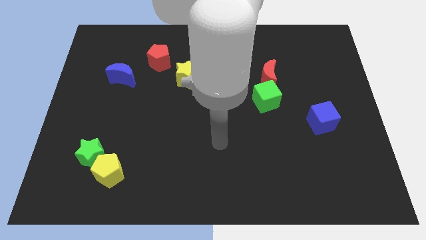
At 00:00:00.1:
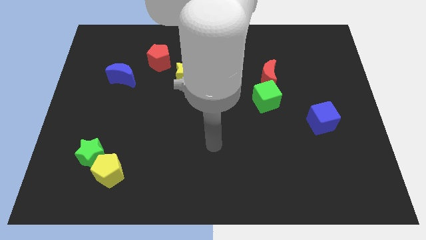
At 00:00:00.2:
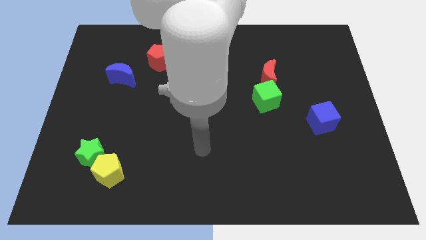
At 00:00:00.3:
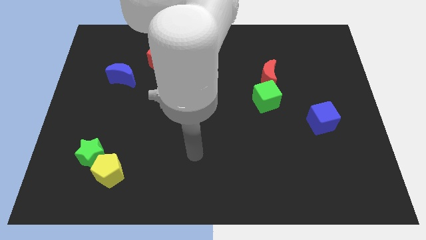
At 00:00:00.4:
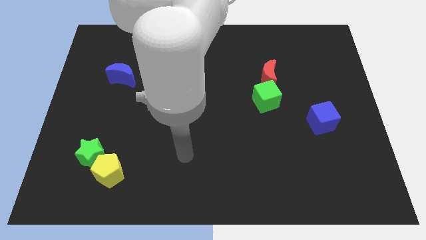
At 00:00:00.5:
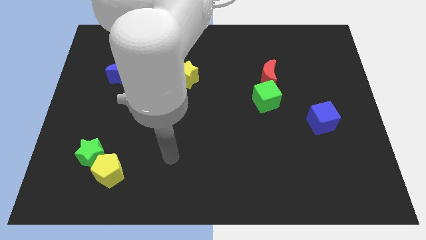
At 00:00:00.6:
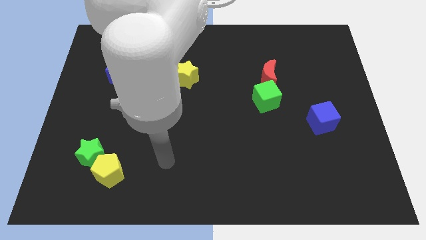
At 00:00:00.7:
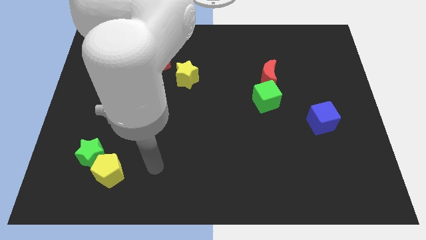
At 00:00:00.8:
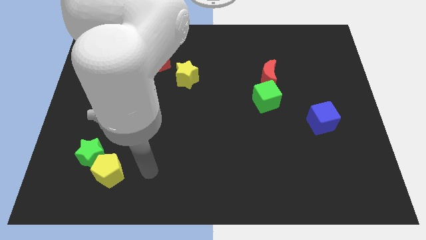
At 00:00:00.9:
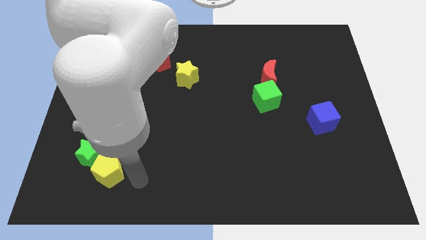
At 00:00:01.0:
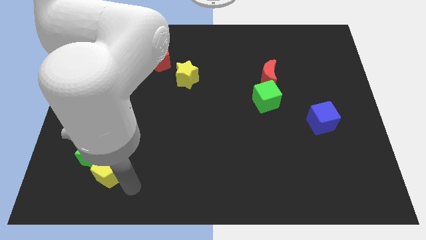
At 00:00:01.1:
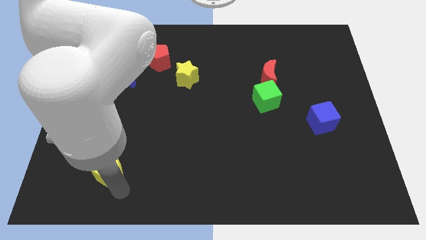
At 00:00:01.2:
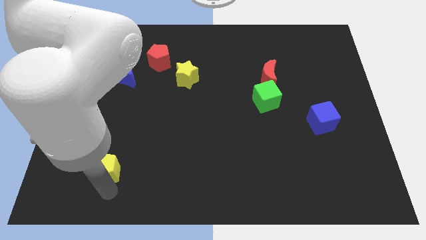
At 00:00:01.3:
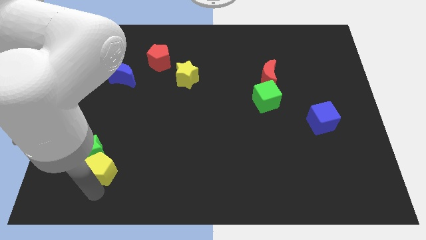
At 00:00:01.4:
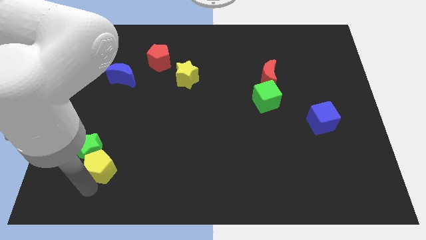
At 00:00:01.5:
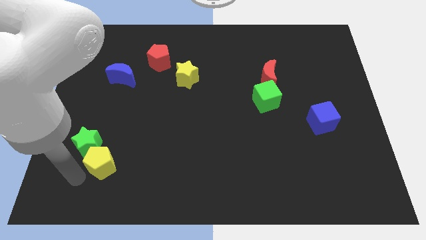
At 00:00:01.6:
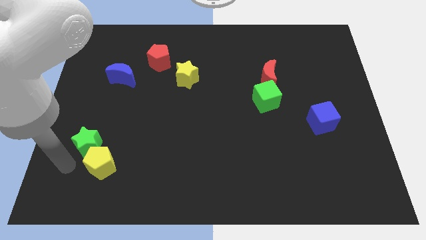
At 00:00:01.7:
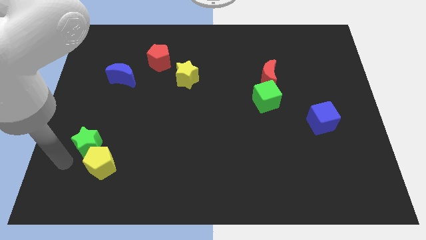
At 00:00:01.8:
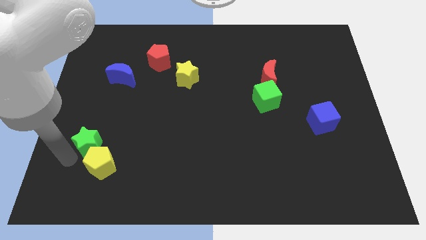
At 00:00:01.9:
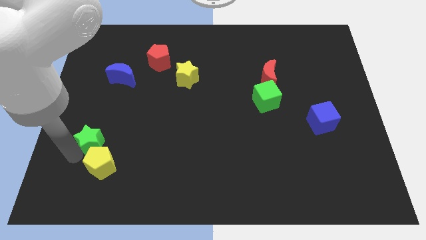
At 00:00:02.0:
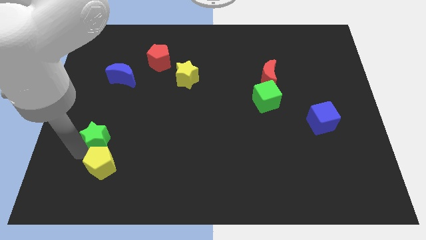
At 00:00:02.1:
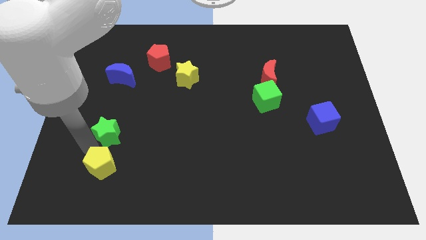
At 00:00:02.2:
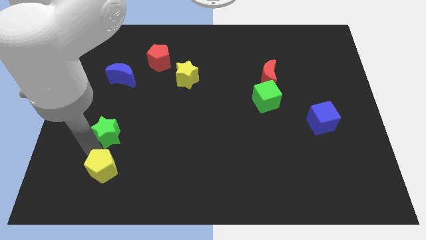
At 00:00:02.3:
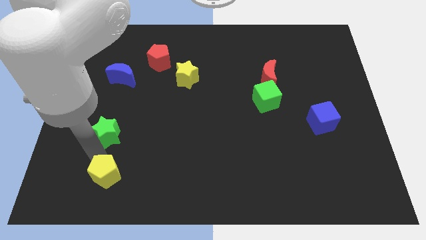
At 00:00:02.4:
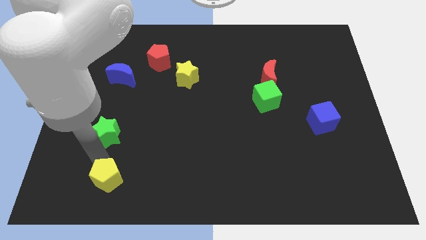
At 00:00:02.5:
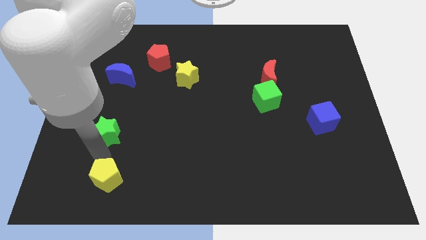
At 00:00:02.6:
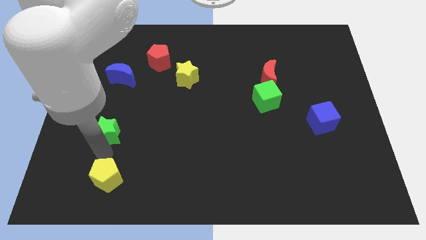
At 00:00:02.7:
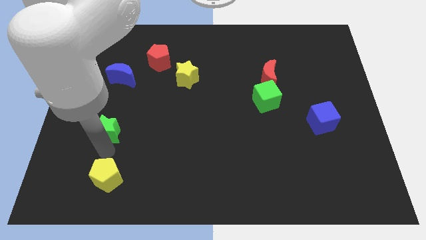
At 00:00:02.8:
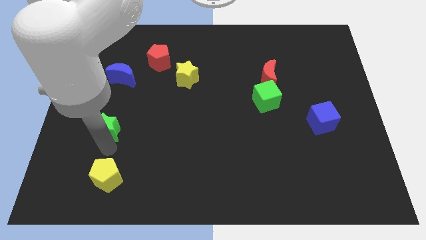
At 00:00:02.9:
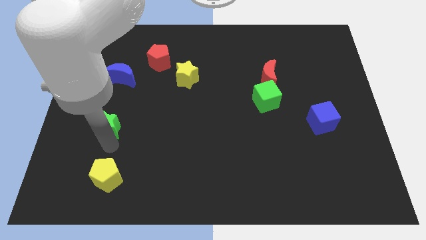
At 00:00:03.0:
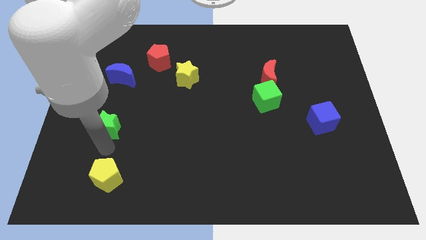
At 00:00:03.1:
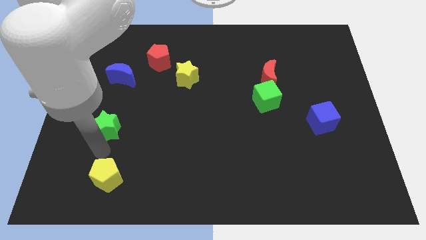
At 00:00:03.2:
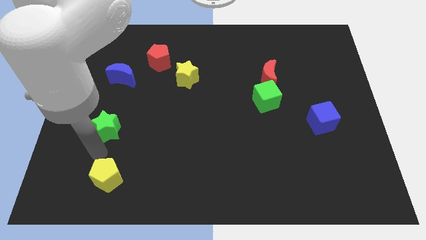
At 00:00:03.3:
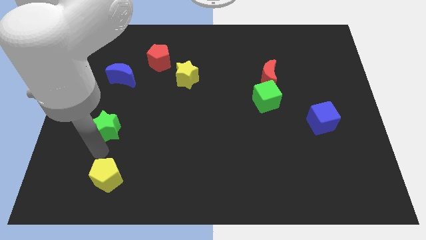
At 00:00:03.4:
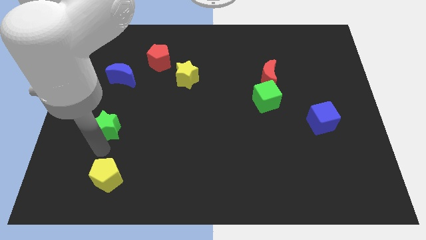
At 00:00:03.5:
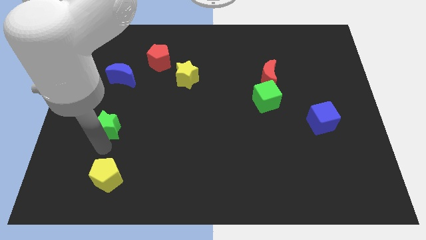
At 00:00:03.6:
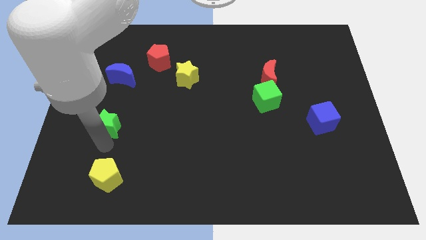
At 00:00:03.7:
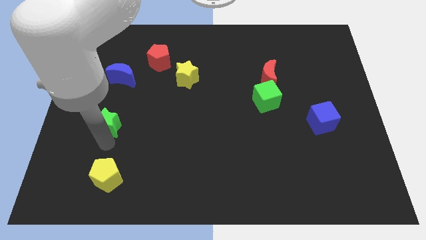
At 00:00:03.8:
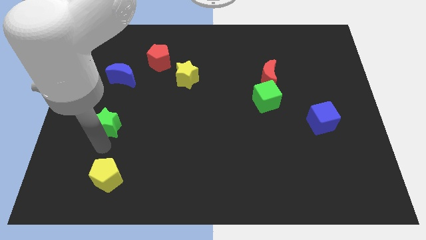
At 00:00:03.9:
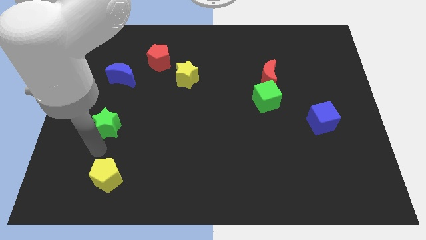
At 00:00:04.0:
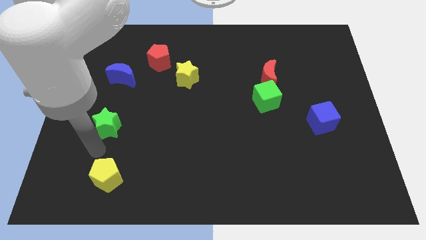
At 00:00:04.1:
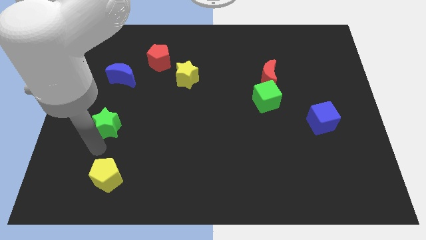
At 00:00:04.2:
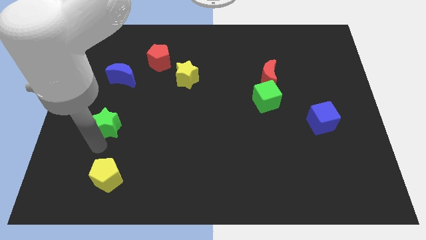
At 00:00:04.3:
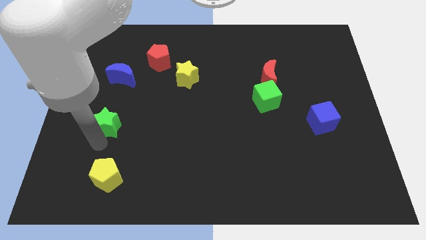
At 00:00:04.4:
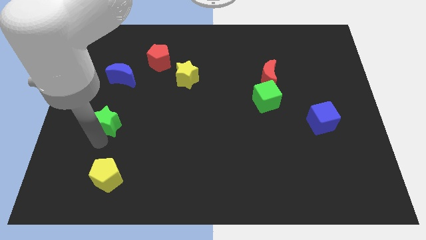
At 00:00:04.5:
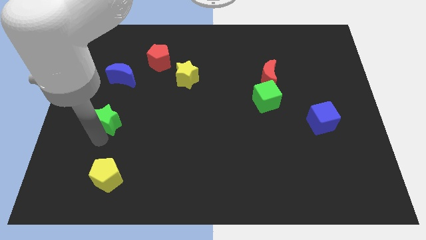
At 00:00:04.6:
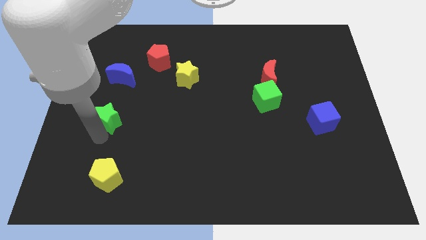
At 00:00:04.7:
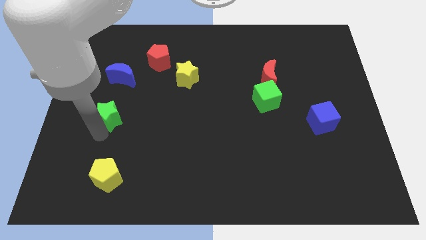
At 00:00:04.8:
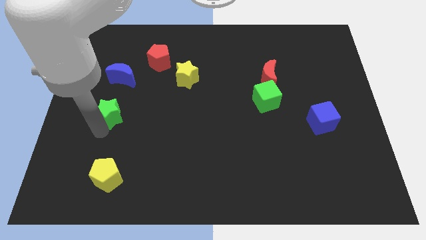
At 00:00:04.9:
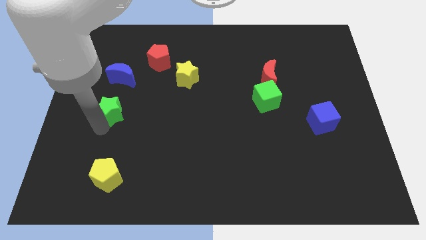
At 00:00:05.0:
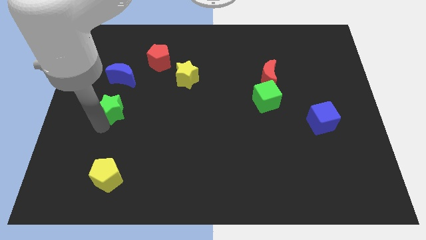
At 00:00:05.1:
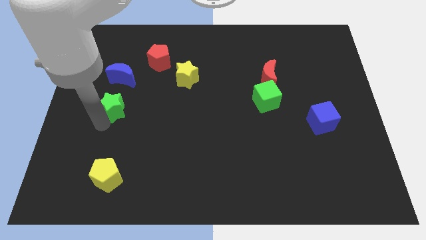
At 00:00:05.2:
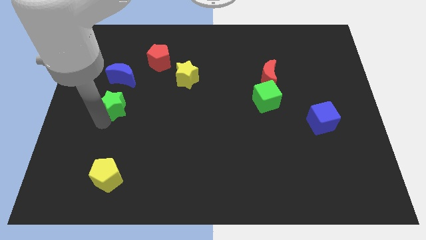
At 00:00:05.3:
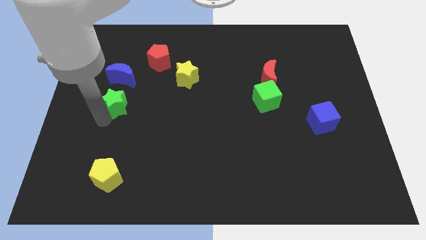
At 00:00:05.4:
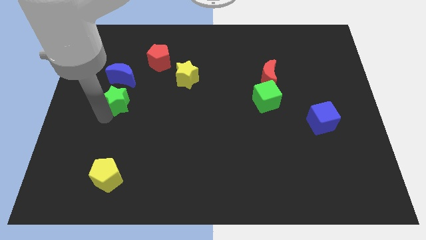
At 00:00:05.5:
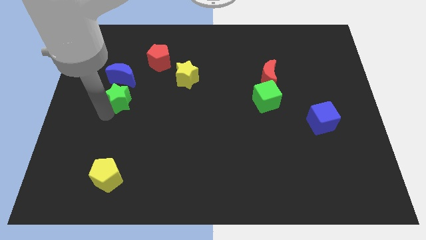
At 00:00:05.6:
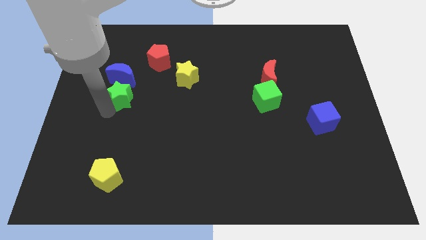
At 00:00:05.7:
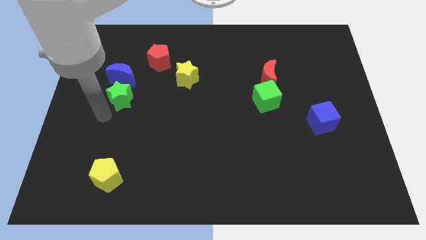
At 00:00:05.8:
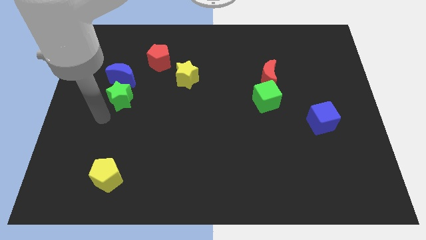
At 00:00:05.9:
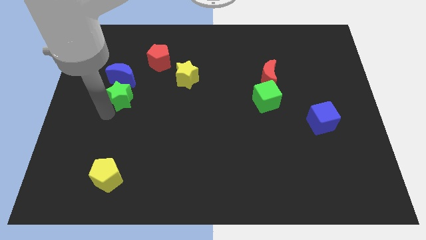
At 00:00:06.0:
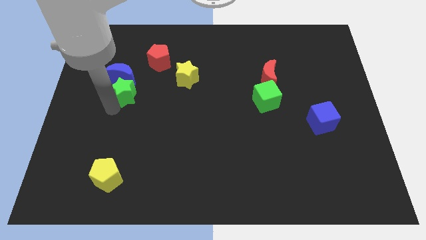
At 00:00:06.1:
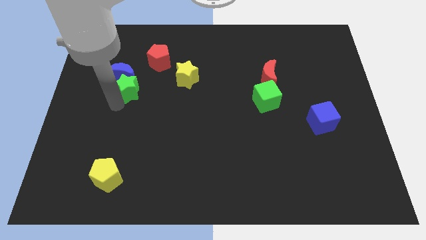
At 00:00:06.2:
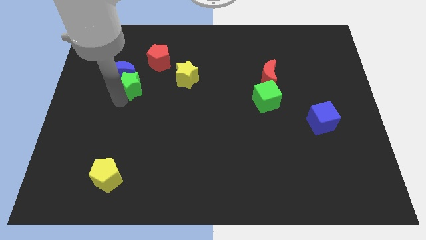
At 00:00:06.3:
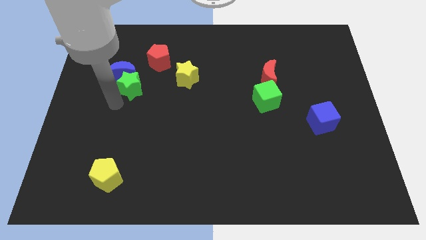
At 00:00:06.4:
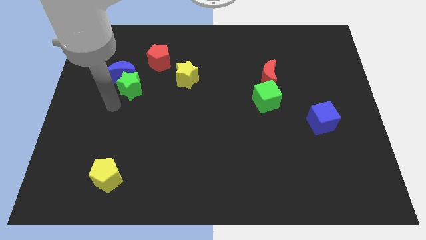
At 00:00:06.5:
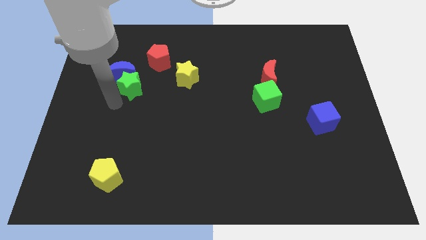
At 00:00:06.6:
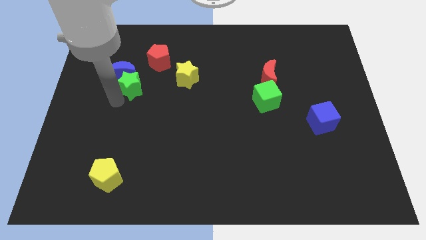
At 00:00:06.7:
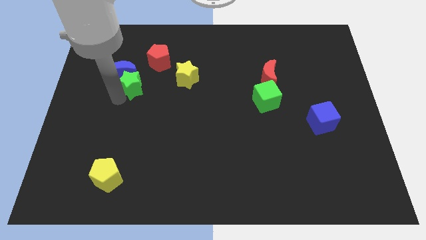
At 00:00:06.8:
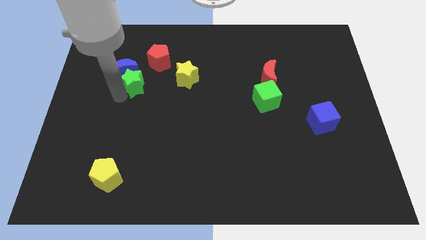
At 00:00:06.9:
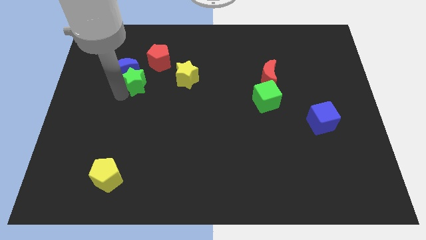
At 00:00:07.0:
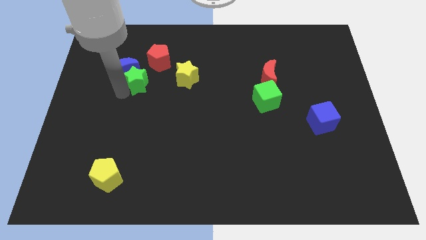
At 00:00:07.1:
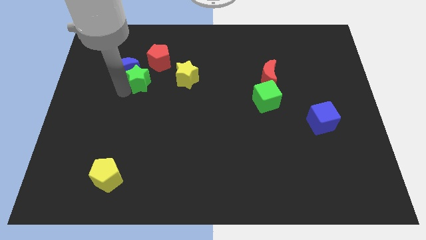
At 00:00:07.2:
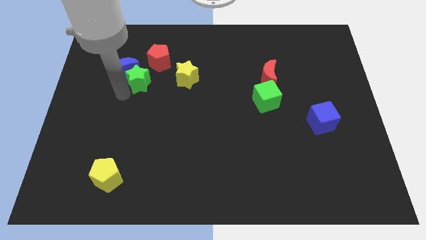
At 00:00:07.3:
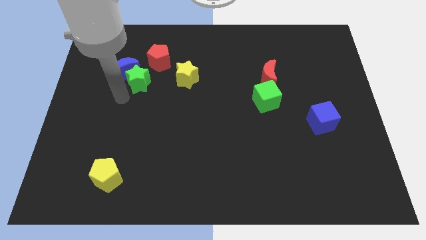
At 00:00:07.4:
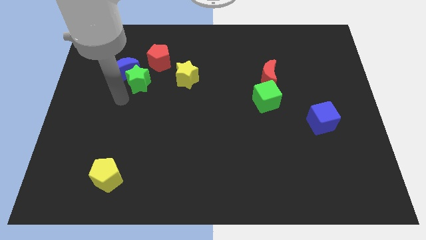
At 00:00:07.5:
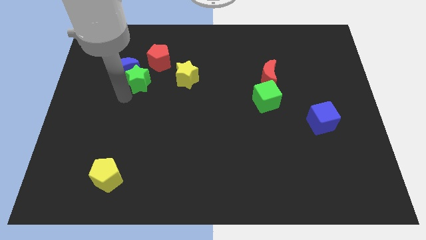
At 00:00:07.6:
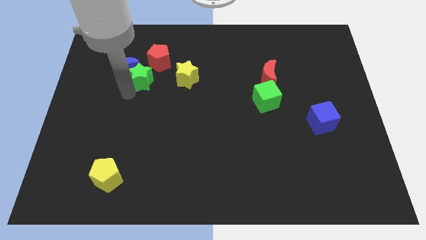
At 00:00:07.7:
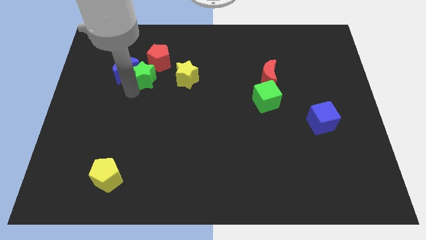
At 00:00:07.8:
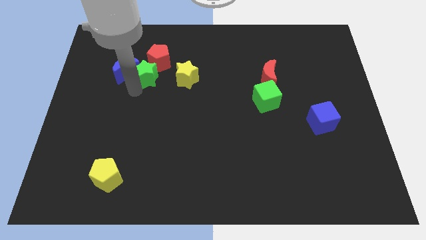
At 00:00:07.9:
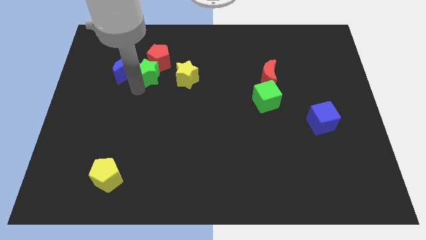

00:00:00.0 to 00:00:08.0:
push the green star towards the red pentagon
